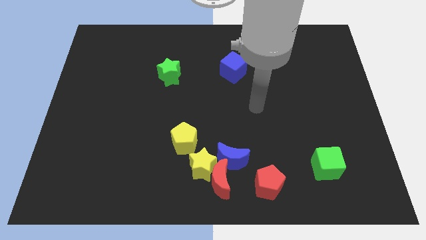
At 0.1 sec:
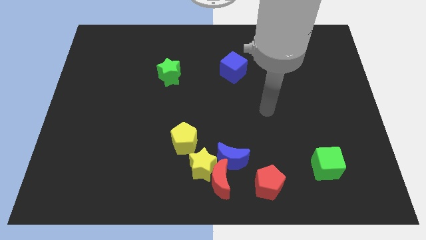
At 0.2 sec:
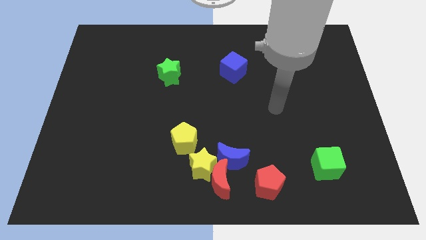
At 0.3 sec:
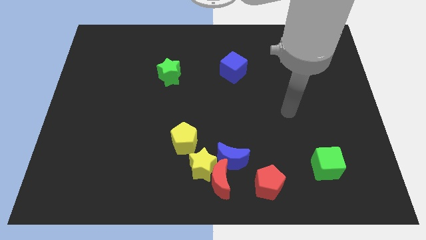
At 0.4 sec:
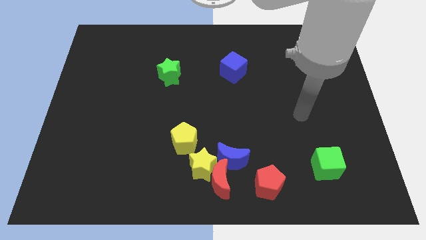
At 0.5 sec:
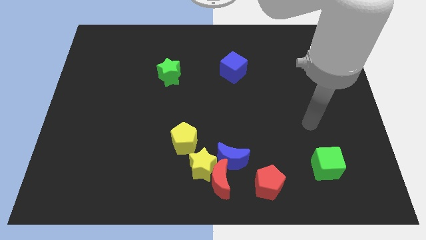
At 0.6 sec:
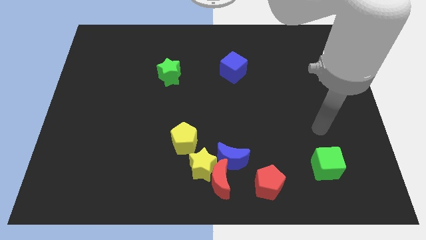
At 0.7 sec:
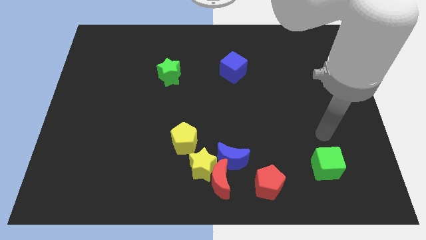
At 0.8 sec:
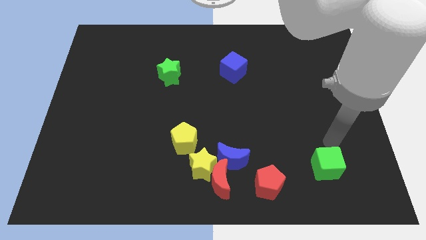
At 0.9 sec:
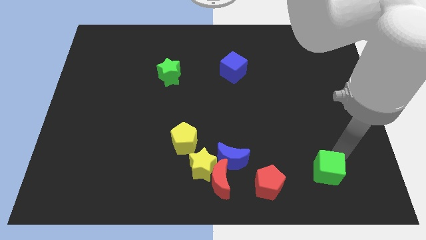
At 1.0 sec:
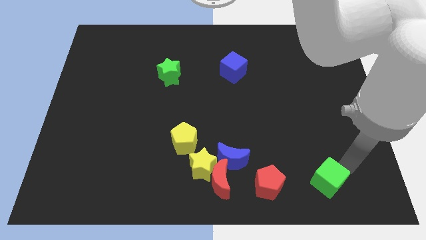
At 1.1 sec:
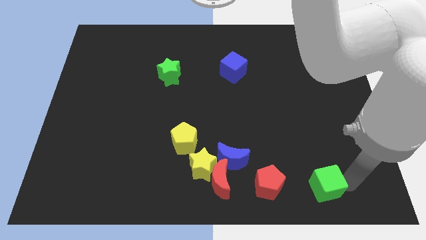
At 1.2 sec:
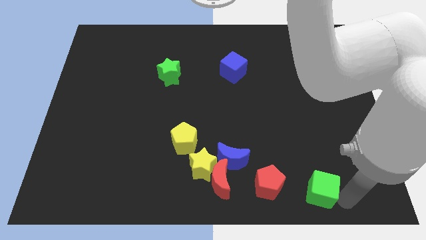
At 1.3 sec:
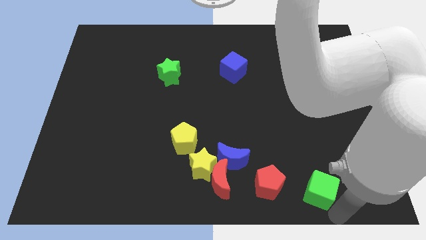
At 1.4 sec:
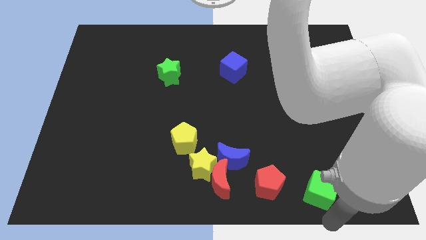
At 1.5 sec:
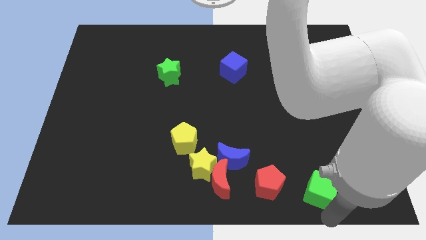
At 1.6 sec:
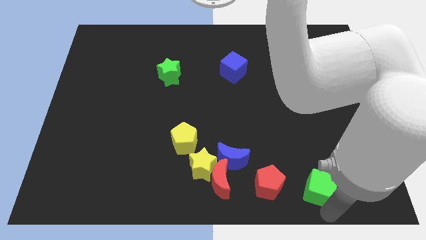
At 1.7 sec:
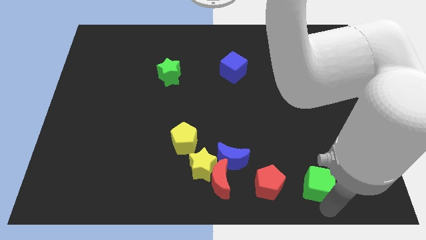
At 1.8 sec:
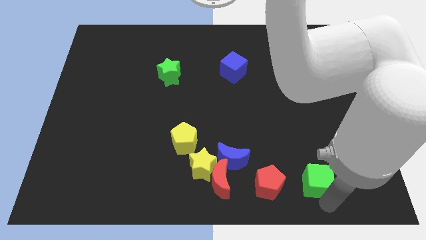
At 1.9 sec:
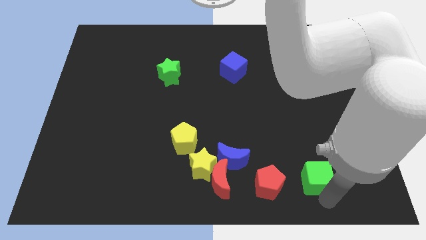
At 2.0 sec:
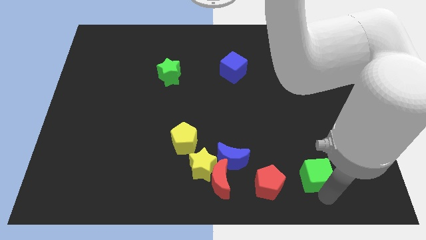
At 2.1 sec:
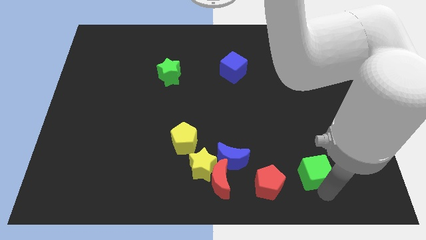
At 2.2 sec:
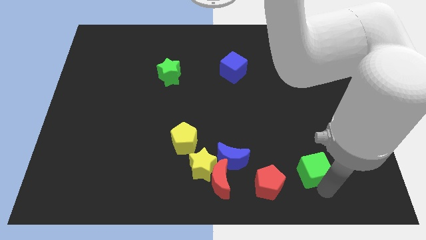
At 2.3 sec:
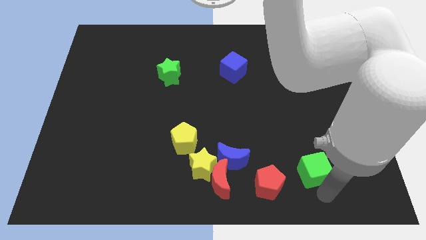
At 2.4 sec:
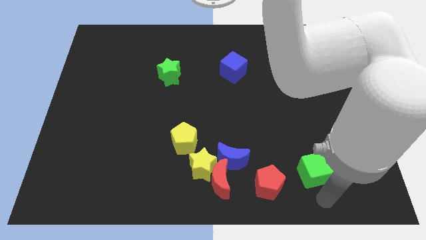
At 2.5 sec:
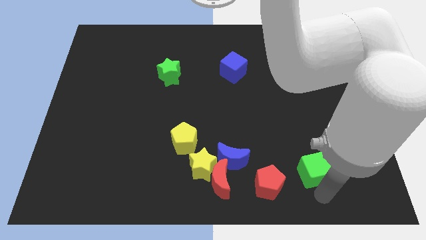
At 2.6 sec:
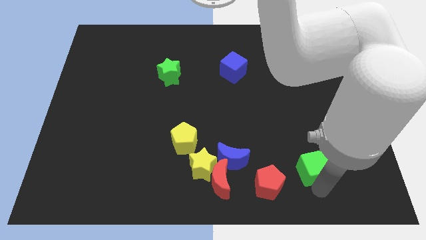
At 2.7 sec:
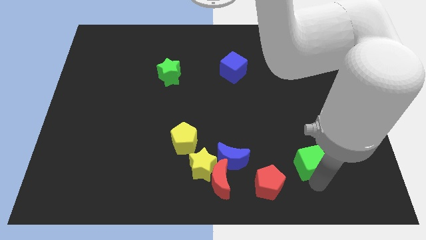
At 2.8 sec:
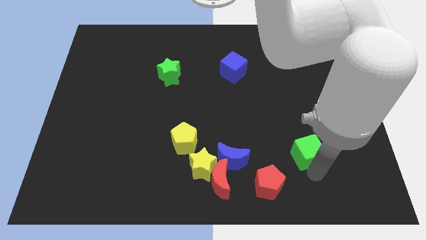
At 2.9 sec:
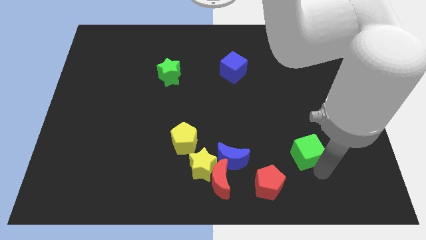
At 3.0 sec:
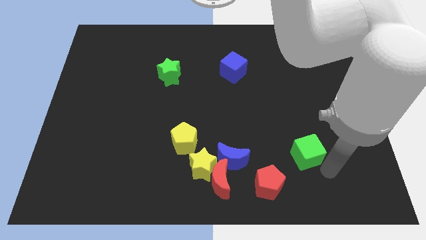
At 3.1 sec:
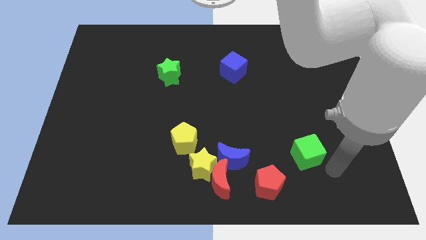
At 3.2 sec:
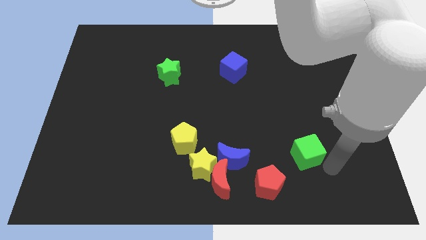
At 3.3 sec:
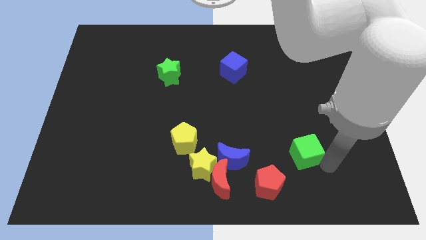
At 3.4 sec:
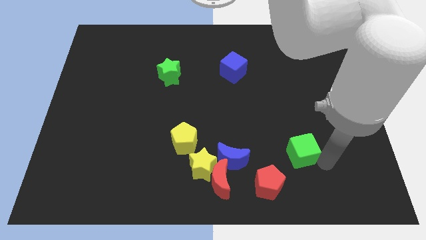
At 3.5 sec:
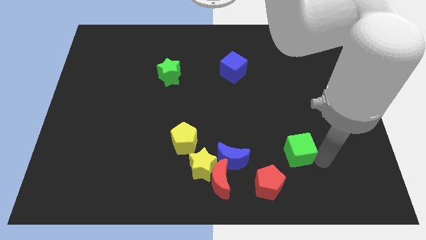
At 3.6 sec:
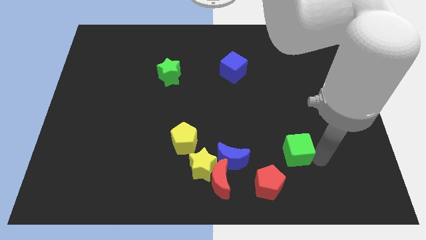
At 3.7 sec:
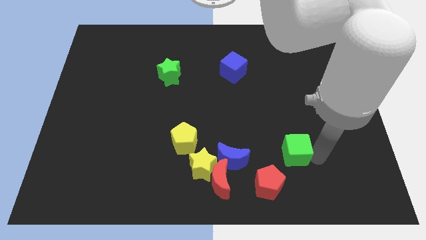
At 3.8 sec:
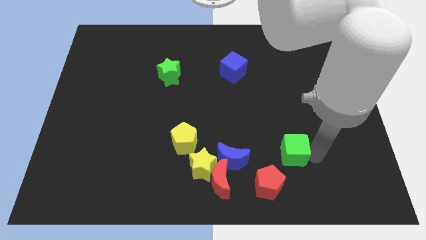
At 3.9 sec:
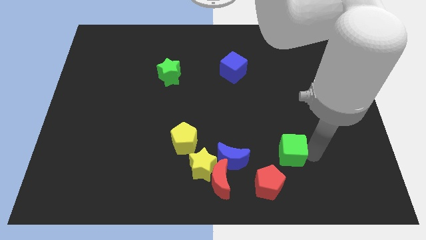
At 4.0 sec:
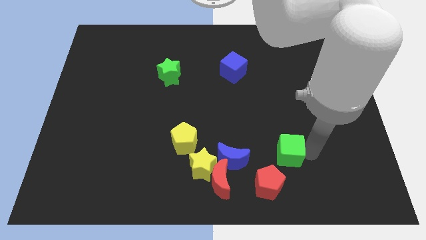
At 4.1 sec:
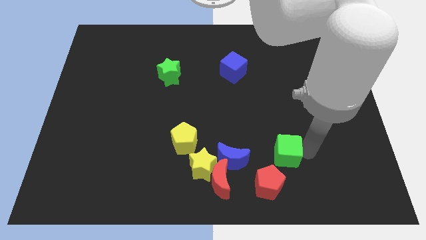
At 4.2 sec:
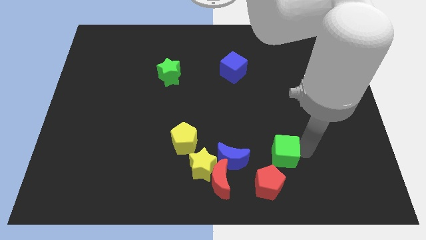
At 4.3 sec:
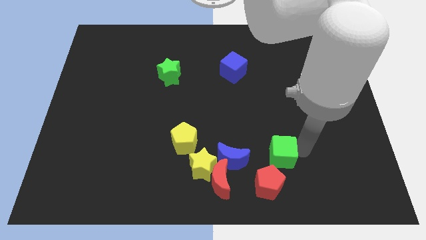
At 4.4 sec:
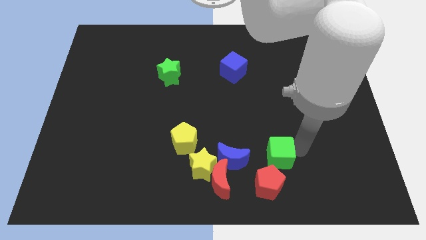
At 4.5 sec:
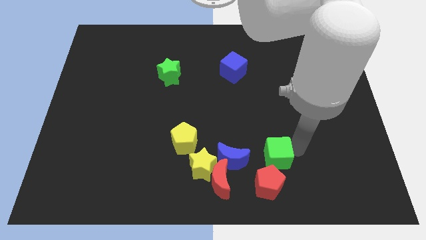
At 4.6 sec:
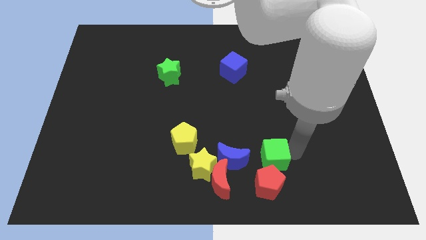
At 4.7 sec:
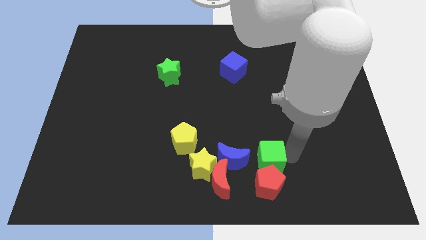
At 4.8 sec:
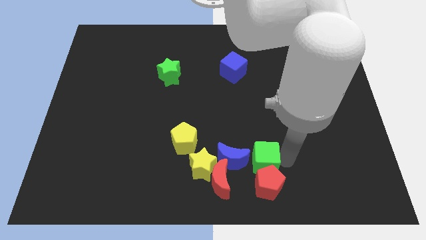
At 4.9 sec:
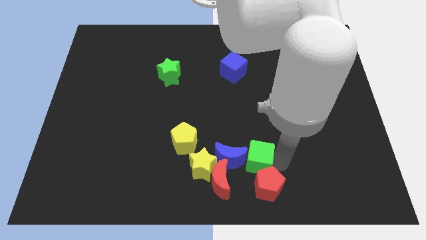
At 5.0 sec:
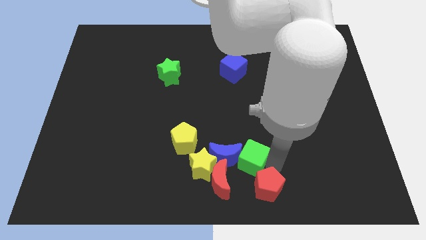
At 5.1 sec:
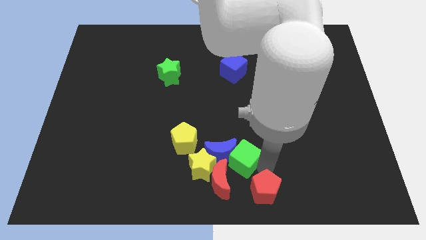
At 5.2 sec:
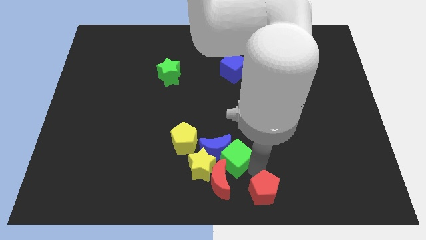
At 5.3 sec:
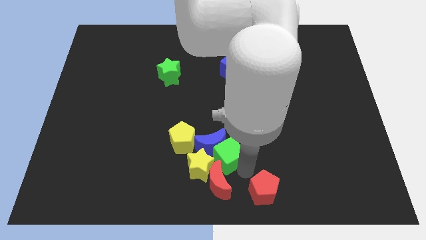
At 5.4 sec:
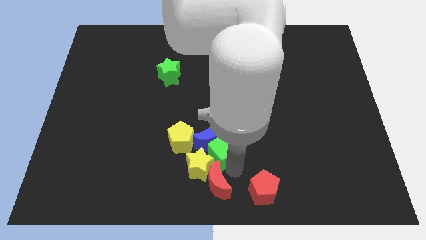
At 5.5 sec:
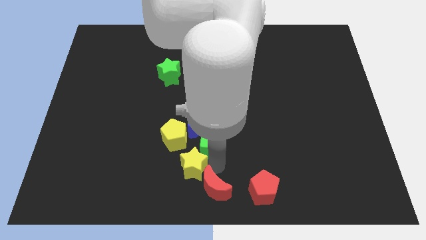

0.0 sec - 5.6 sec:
slide the green cube to the top of the yellow star

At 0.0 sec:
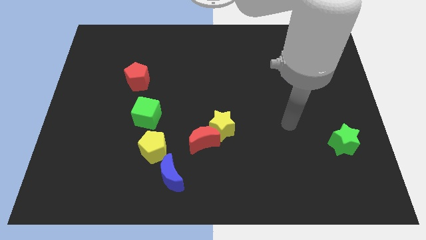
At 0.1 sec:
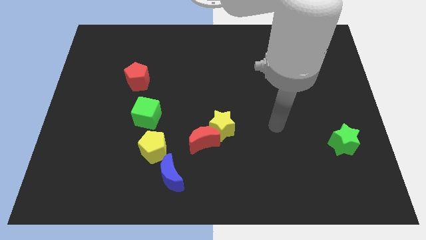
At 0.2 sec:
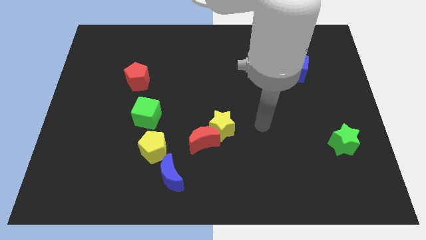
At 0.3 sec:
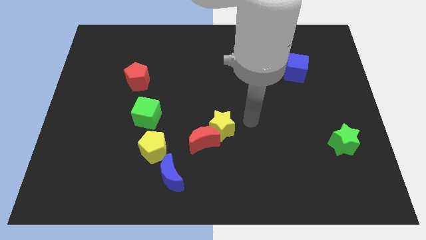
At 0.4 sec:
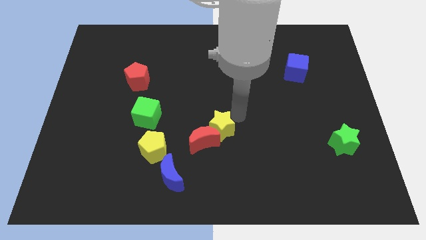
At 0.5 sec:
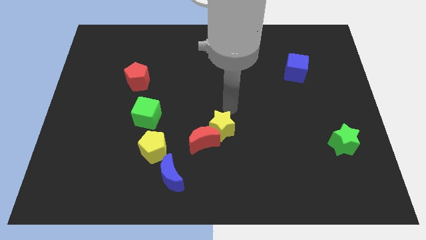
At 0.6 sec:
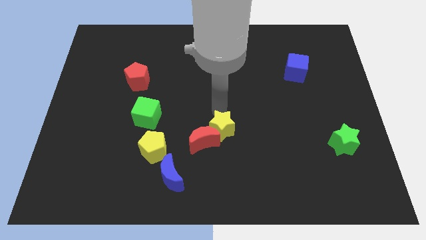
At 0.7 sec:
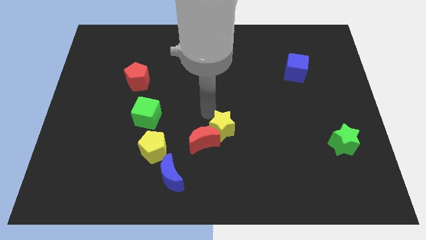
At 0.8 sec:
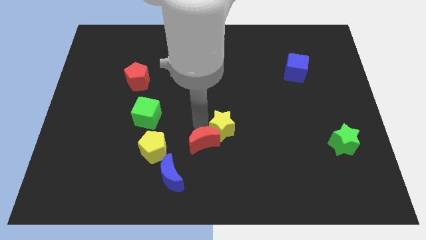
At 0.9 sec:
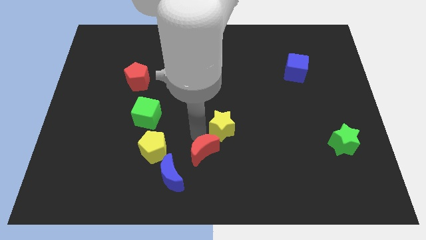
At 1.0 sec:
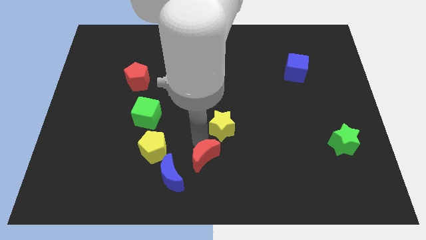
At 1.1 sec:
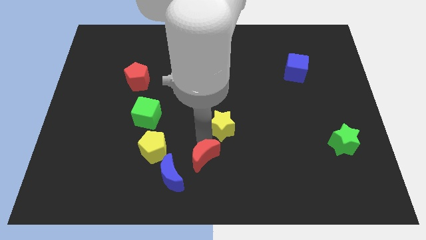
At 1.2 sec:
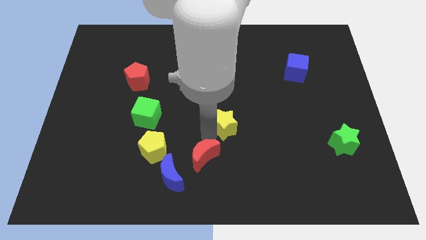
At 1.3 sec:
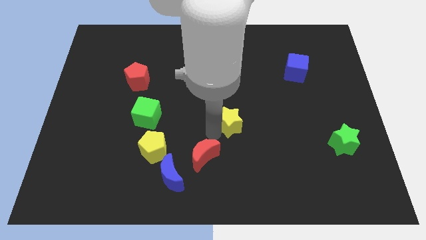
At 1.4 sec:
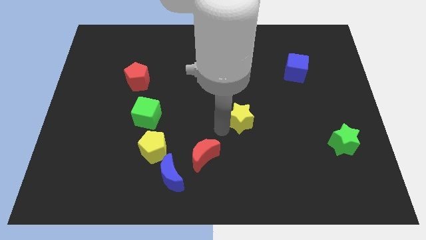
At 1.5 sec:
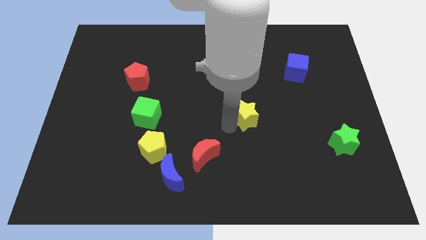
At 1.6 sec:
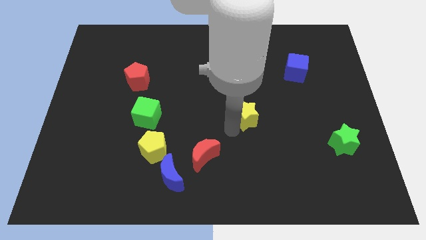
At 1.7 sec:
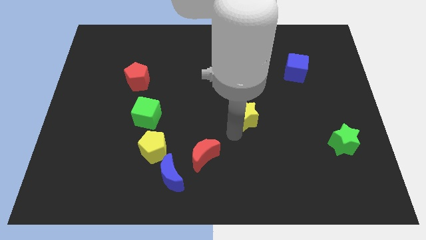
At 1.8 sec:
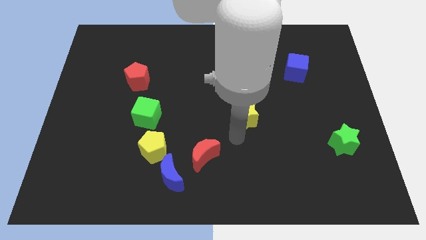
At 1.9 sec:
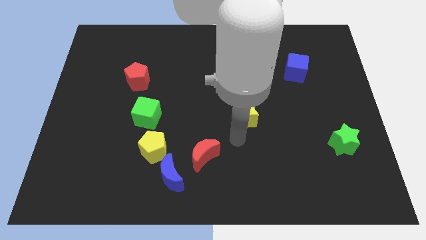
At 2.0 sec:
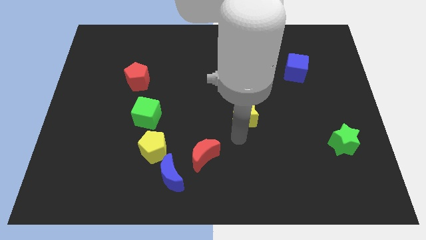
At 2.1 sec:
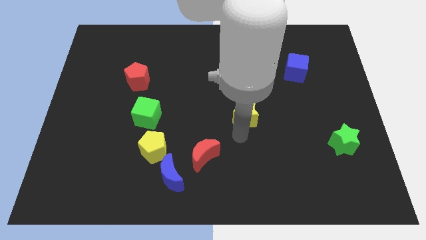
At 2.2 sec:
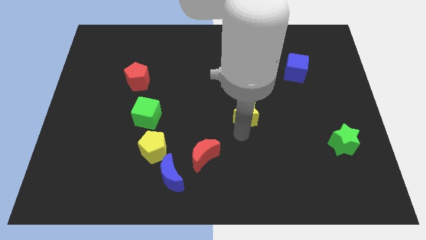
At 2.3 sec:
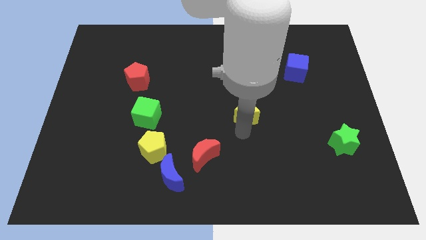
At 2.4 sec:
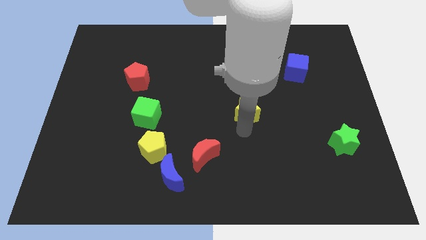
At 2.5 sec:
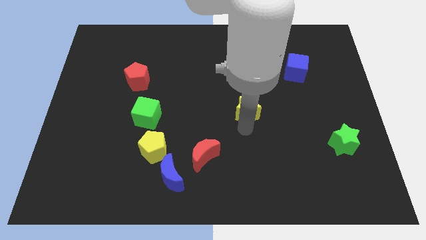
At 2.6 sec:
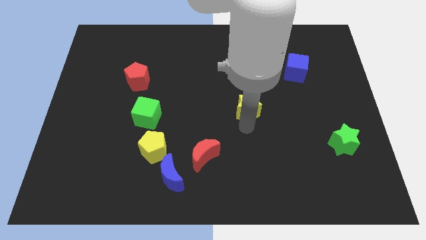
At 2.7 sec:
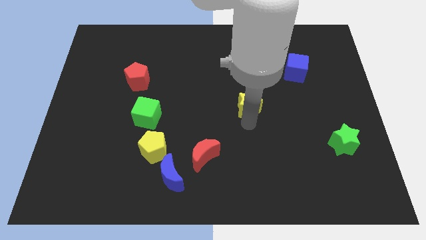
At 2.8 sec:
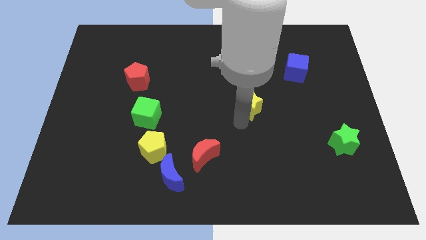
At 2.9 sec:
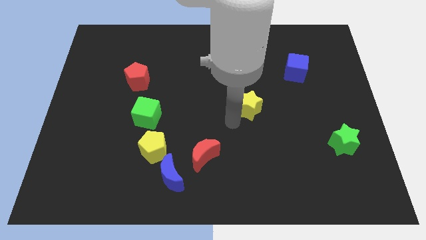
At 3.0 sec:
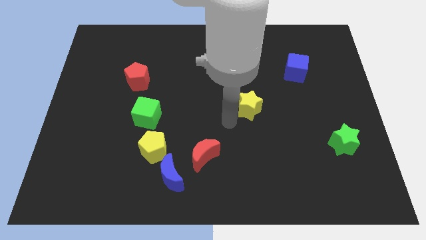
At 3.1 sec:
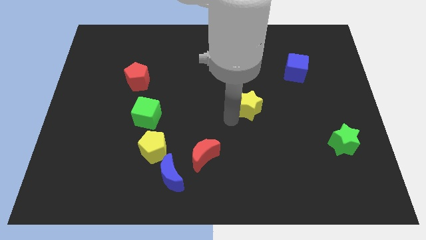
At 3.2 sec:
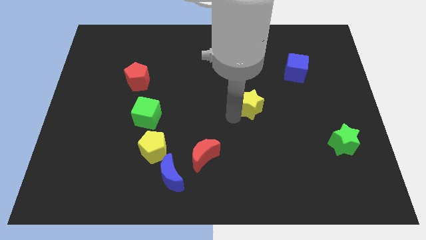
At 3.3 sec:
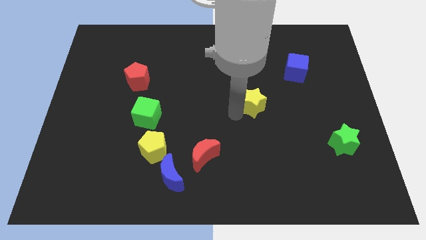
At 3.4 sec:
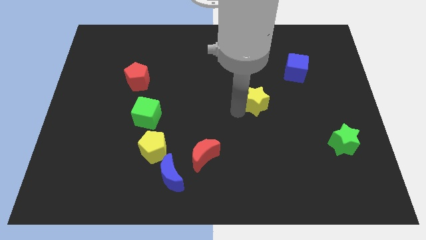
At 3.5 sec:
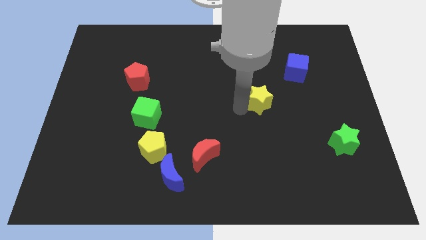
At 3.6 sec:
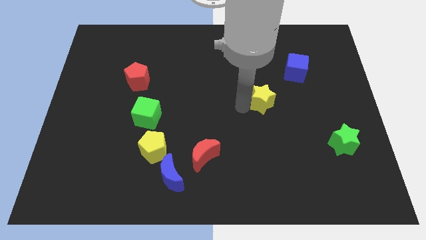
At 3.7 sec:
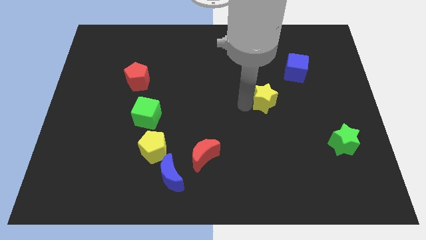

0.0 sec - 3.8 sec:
slide the yellow star to the bottom left side of the blue cube
